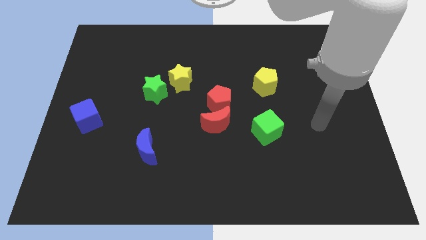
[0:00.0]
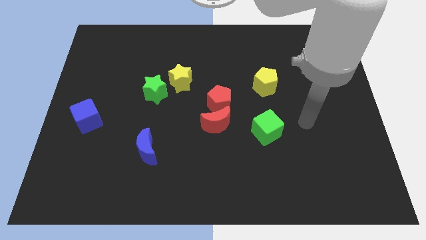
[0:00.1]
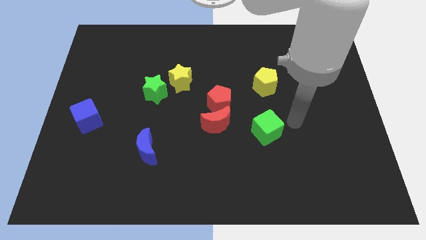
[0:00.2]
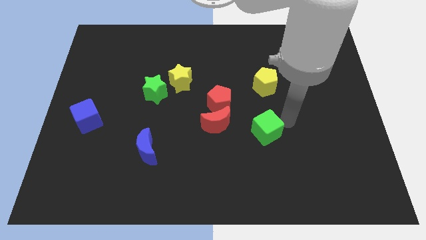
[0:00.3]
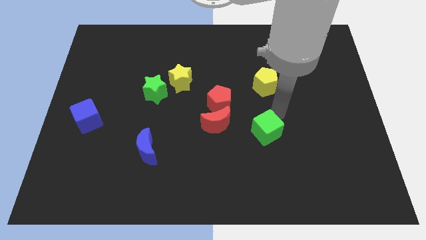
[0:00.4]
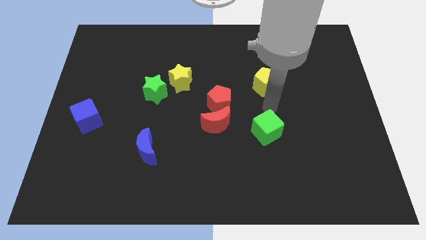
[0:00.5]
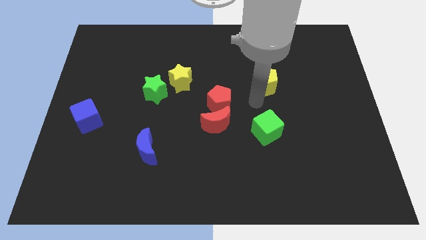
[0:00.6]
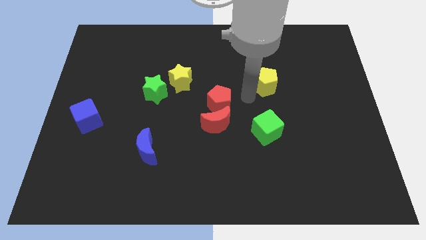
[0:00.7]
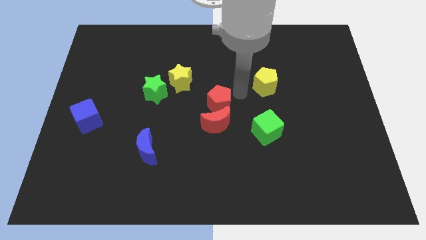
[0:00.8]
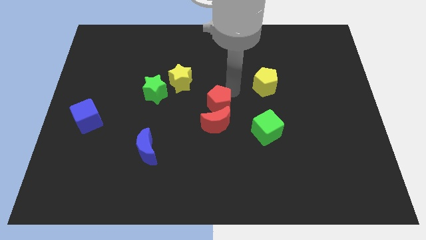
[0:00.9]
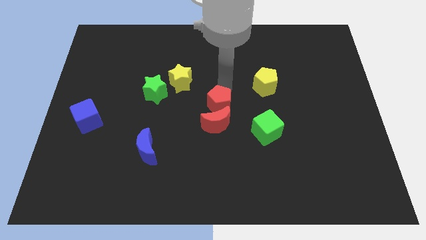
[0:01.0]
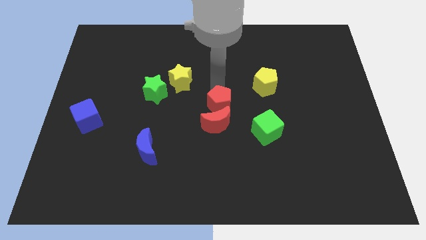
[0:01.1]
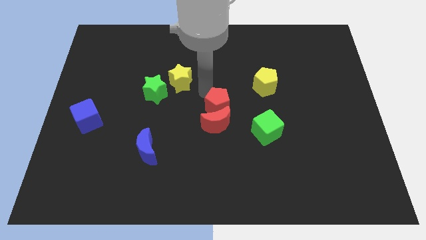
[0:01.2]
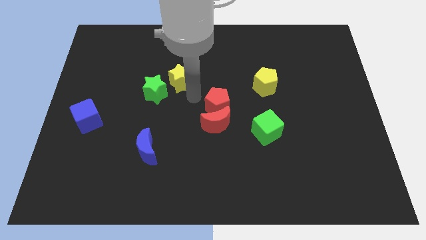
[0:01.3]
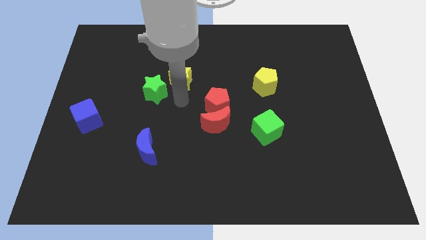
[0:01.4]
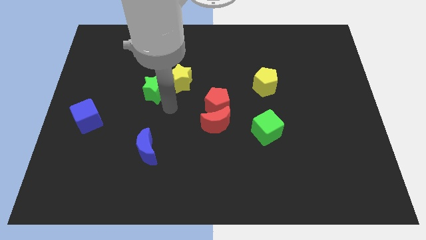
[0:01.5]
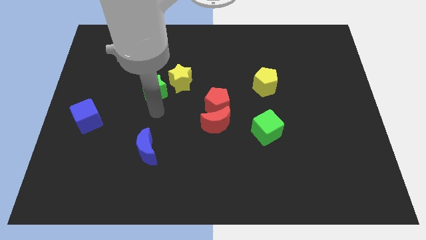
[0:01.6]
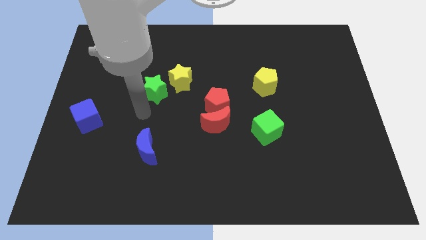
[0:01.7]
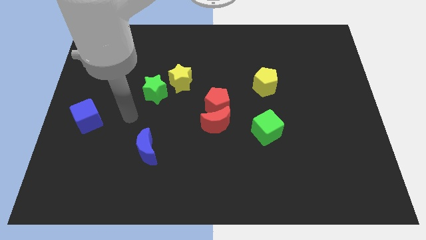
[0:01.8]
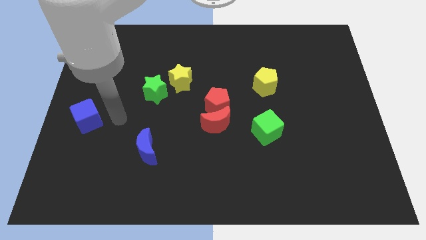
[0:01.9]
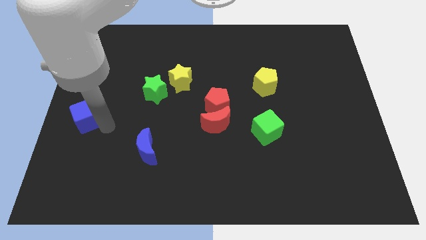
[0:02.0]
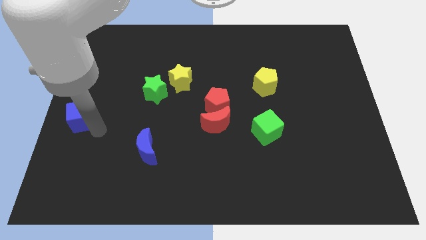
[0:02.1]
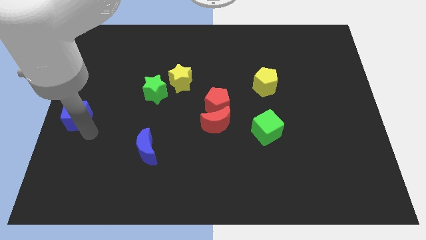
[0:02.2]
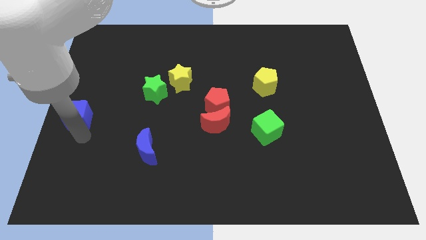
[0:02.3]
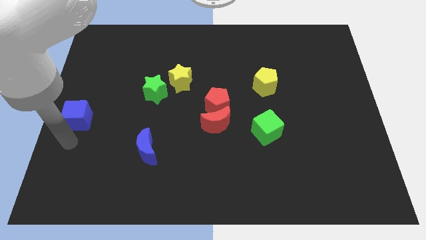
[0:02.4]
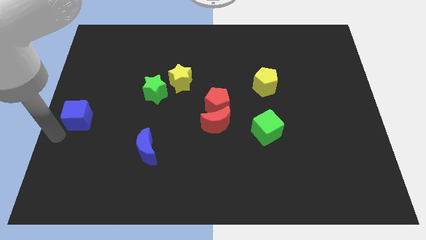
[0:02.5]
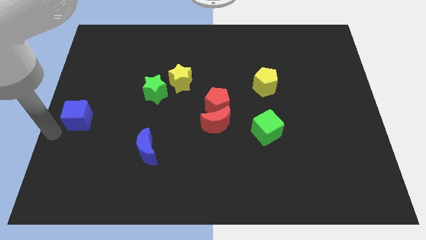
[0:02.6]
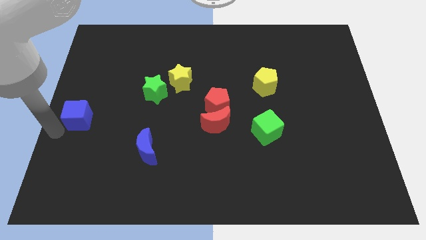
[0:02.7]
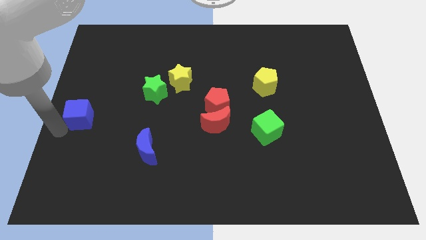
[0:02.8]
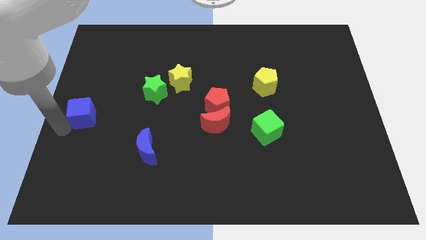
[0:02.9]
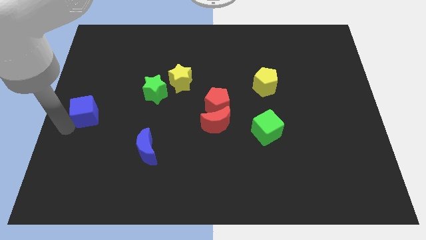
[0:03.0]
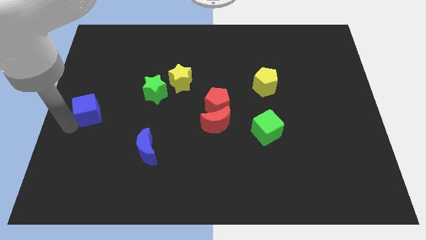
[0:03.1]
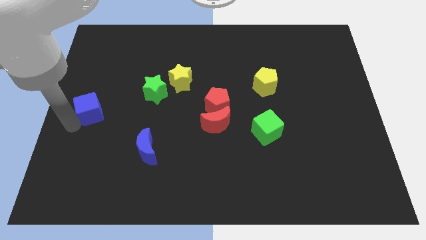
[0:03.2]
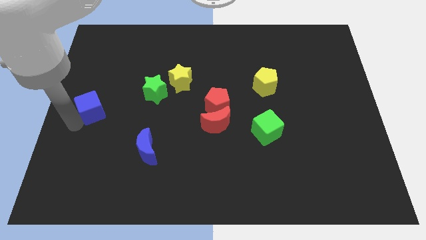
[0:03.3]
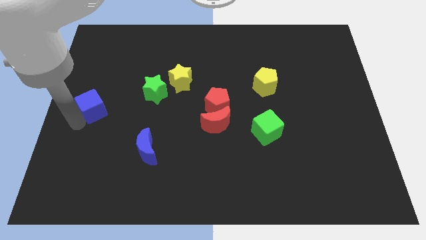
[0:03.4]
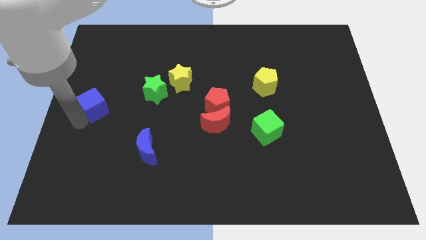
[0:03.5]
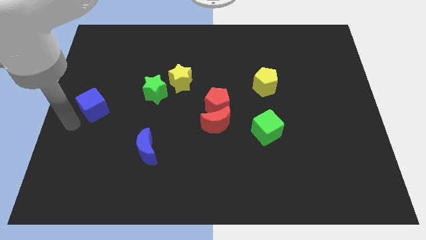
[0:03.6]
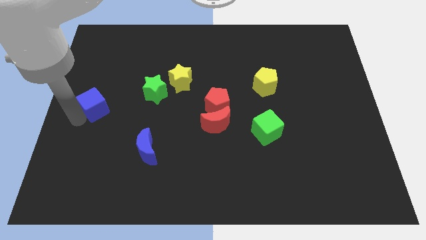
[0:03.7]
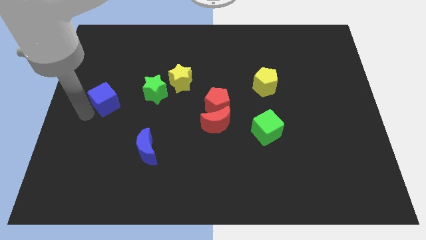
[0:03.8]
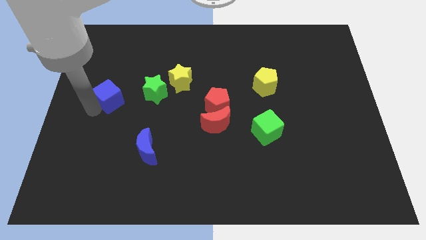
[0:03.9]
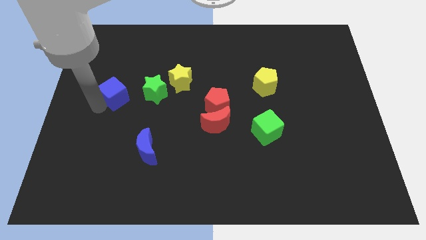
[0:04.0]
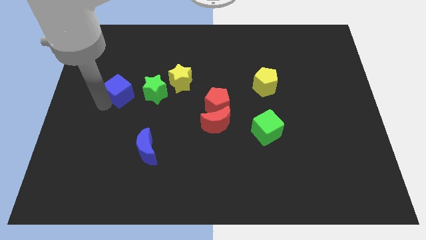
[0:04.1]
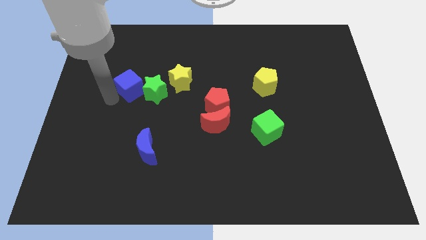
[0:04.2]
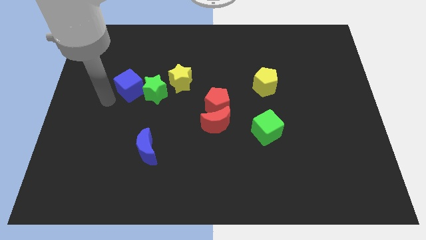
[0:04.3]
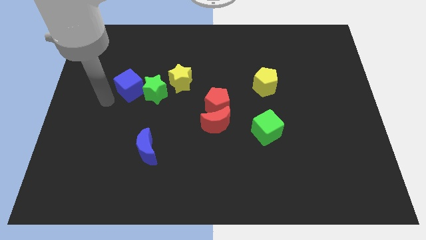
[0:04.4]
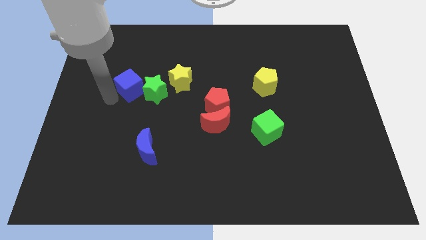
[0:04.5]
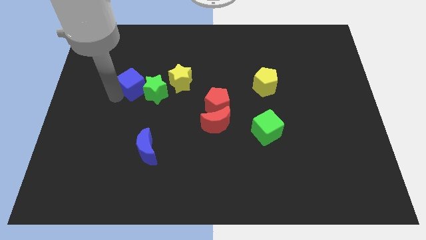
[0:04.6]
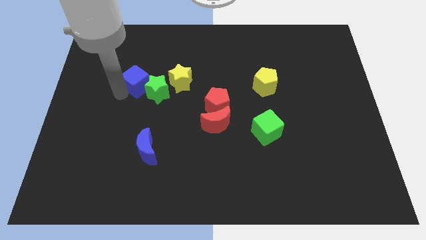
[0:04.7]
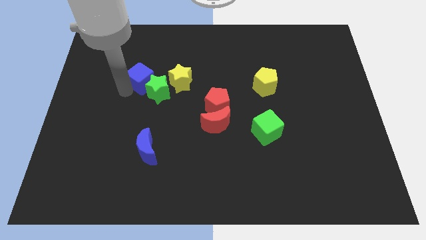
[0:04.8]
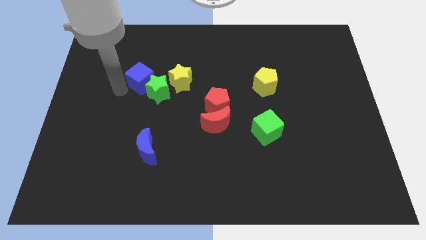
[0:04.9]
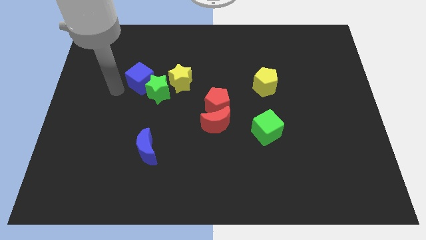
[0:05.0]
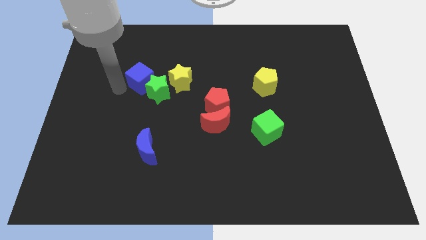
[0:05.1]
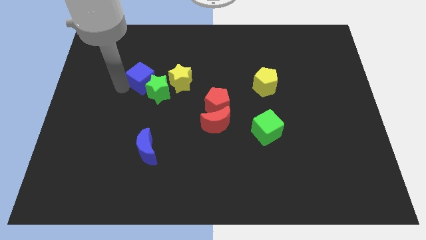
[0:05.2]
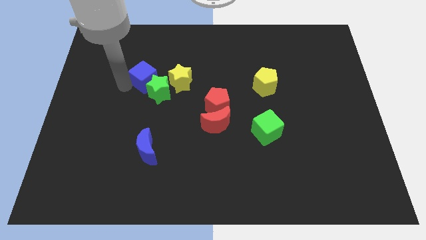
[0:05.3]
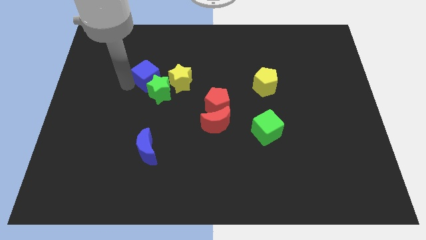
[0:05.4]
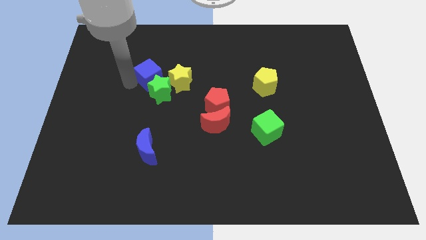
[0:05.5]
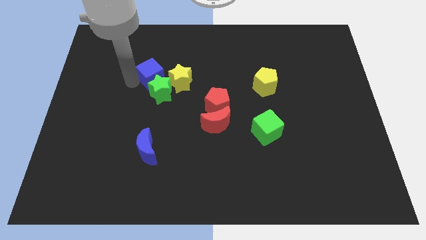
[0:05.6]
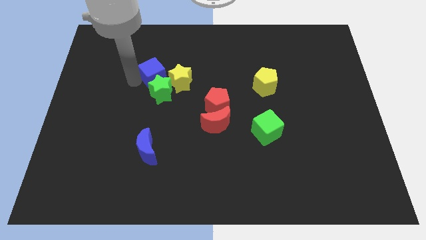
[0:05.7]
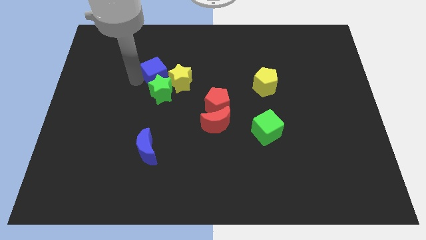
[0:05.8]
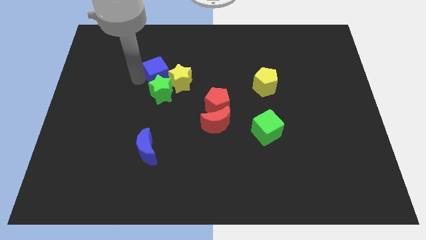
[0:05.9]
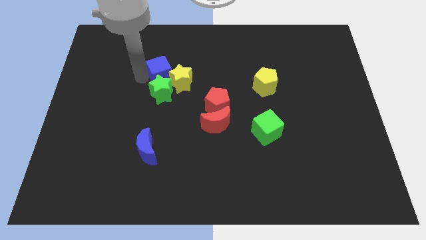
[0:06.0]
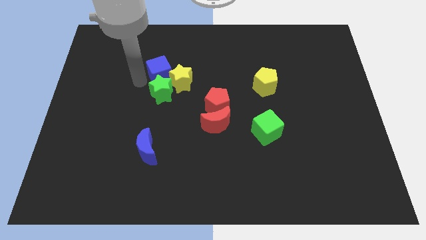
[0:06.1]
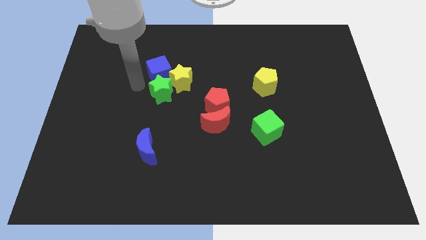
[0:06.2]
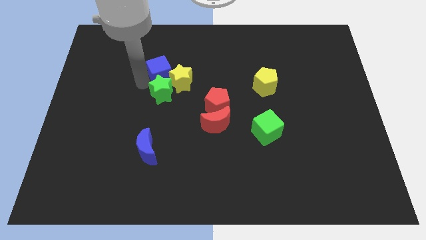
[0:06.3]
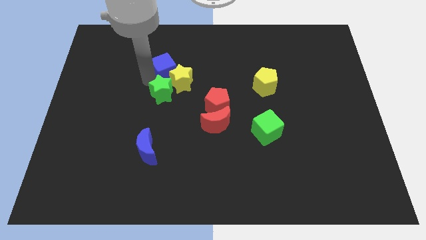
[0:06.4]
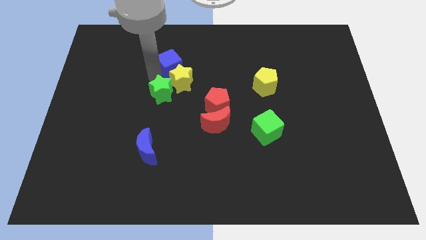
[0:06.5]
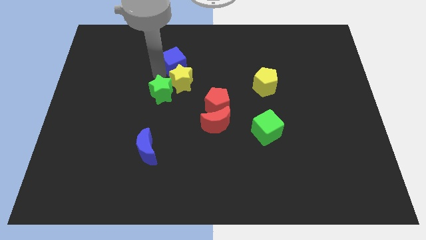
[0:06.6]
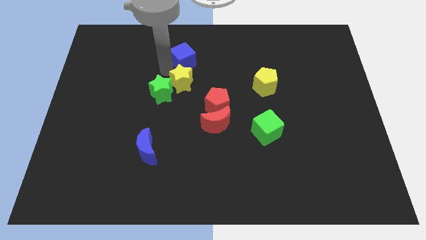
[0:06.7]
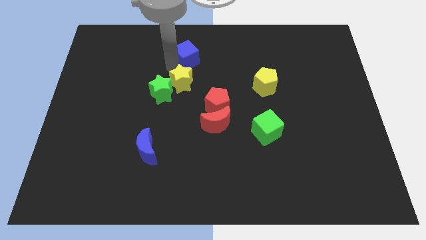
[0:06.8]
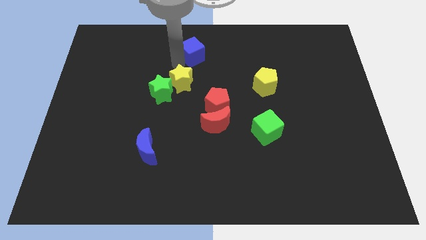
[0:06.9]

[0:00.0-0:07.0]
slide the blue cube to the top side

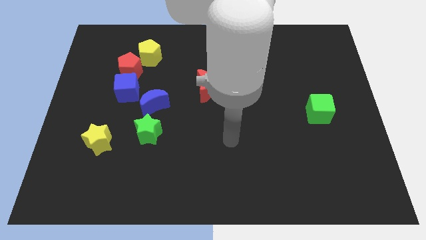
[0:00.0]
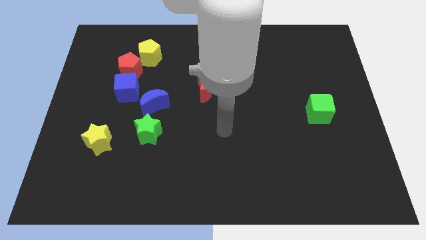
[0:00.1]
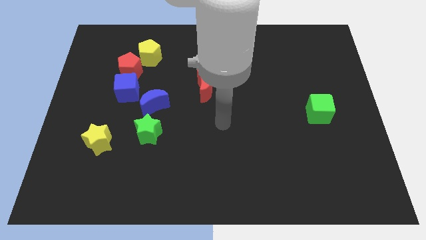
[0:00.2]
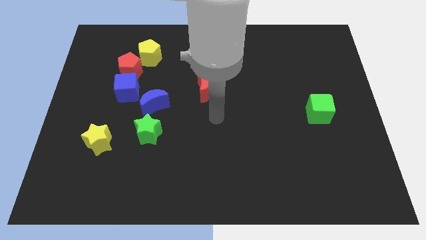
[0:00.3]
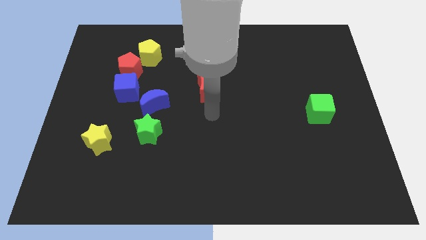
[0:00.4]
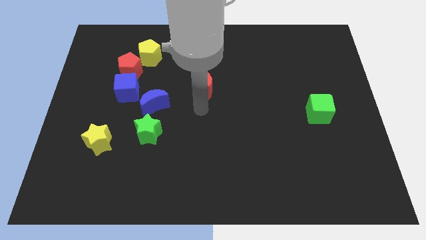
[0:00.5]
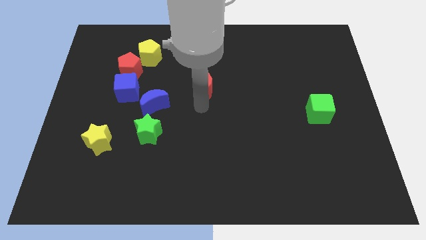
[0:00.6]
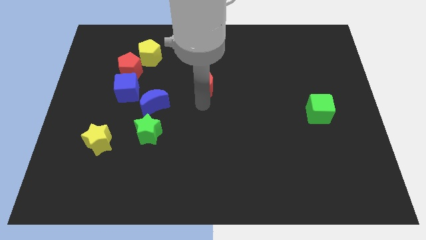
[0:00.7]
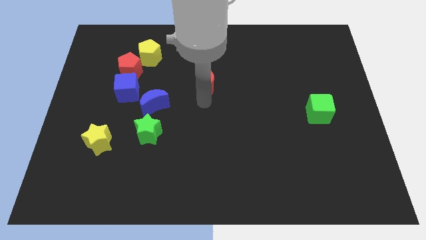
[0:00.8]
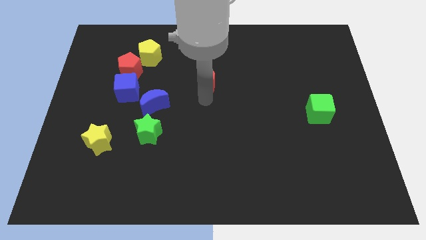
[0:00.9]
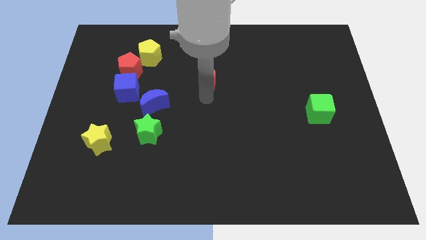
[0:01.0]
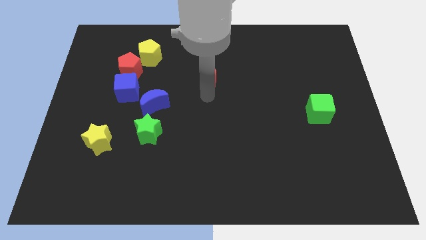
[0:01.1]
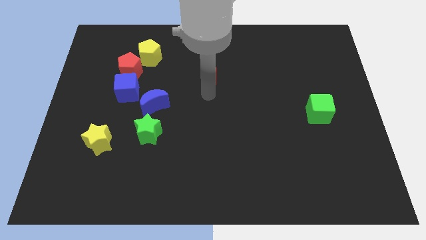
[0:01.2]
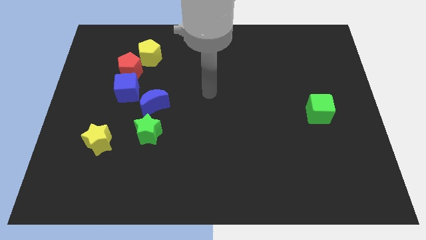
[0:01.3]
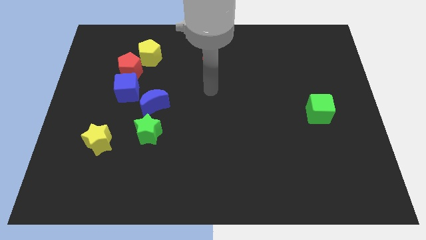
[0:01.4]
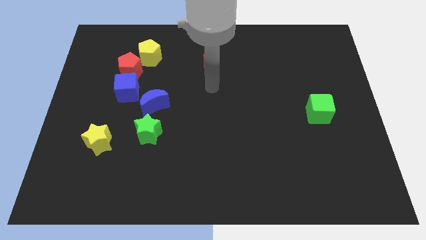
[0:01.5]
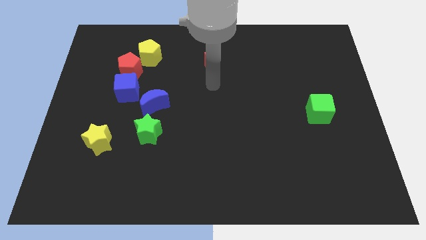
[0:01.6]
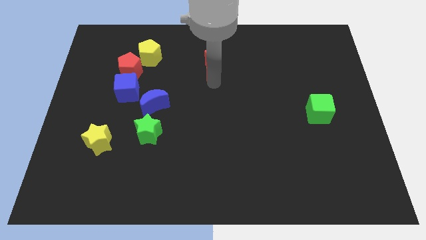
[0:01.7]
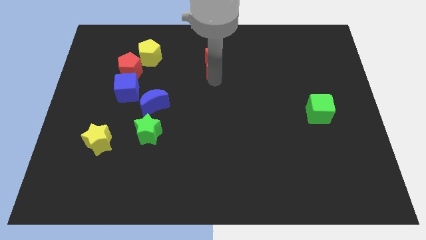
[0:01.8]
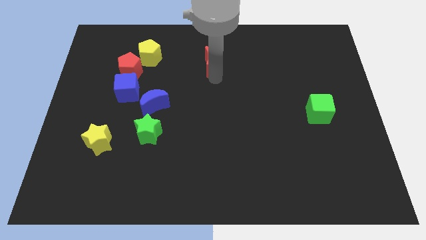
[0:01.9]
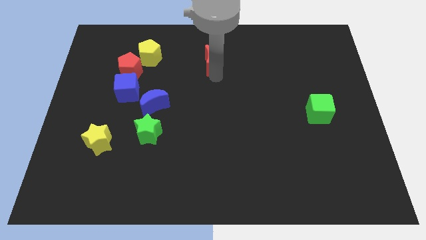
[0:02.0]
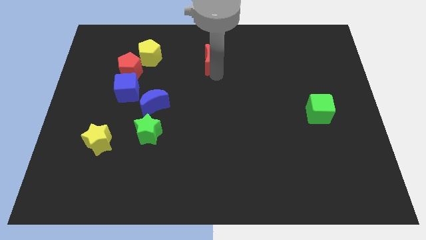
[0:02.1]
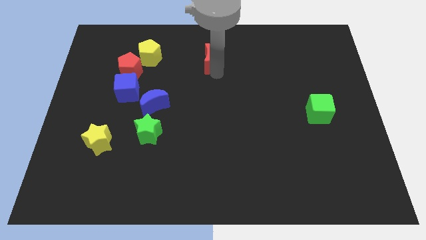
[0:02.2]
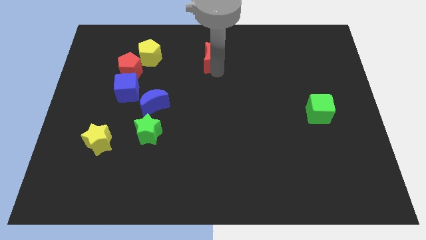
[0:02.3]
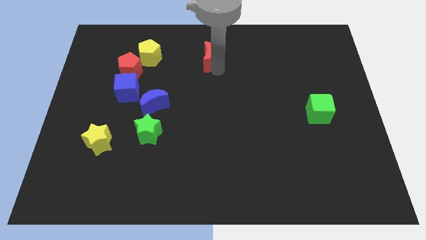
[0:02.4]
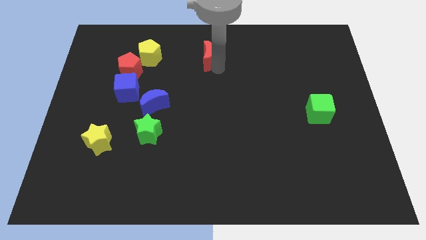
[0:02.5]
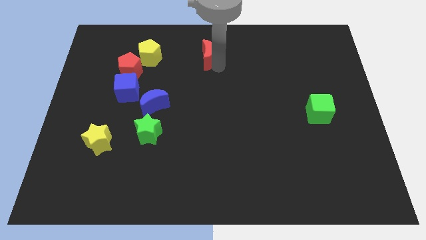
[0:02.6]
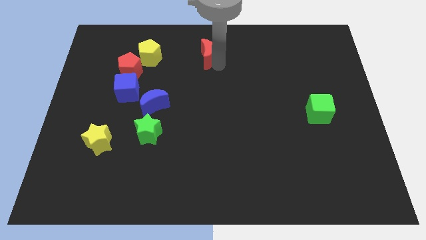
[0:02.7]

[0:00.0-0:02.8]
move the red moon to the top side
